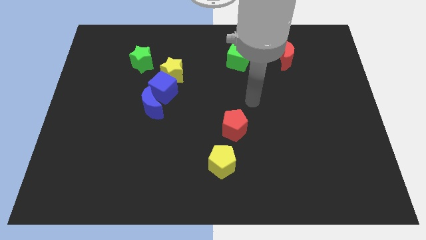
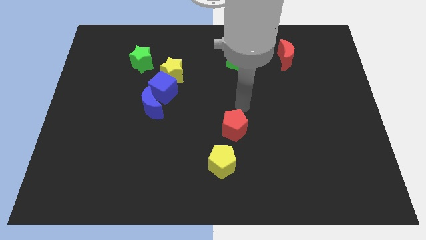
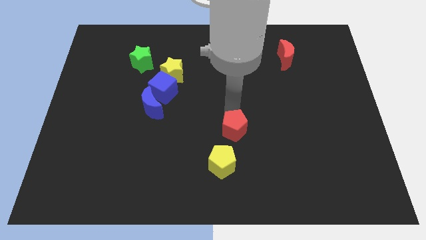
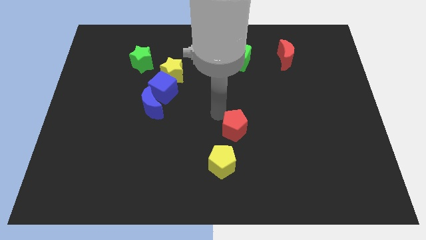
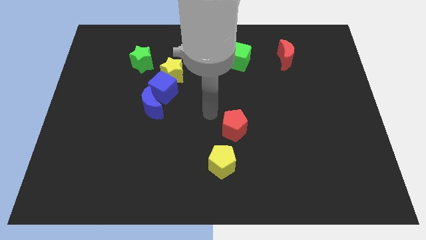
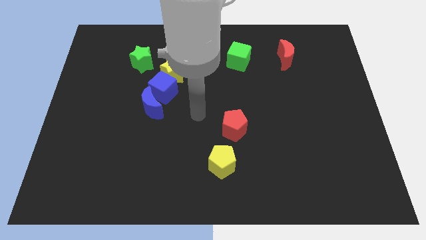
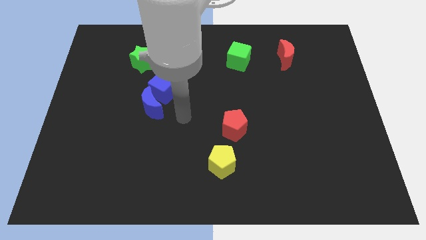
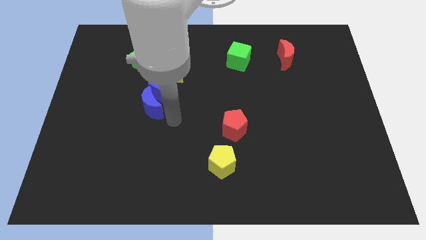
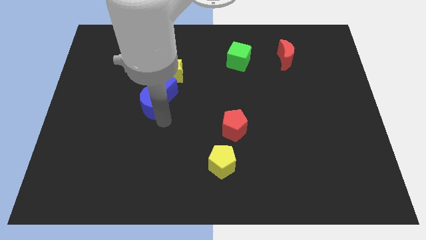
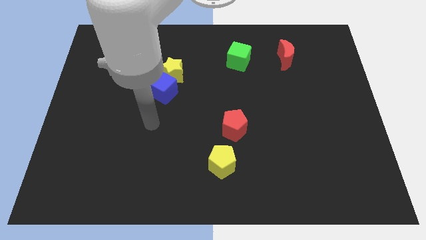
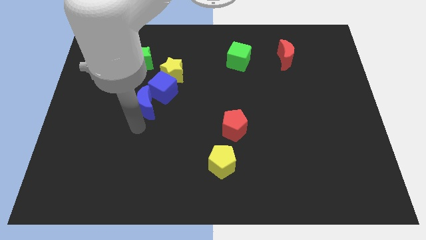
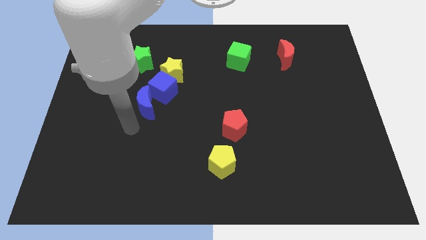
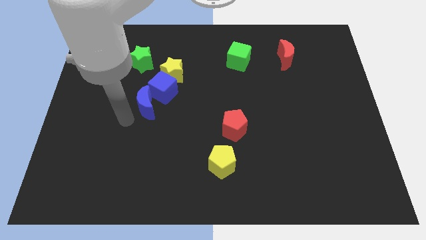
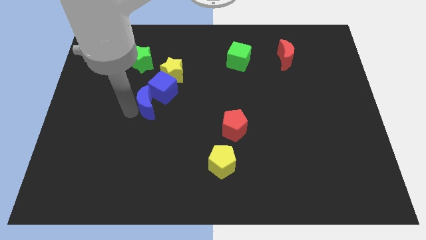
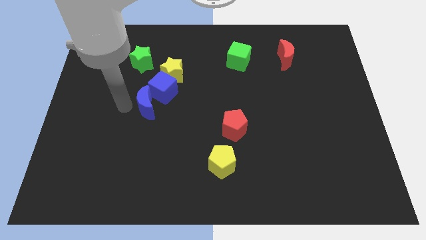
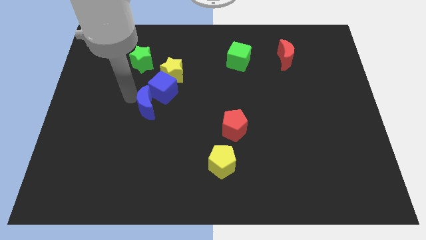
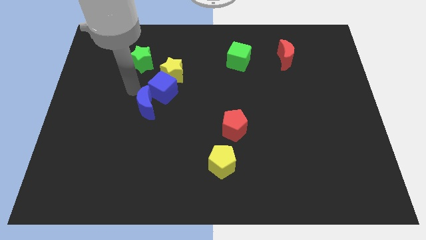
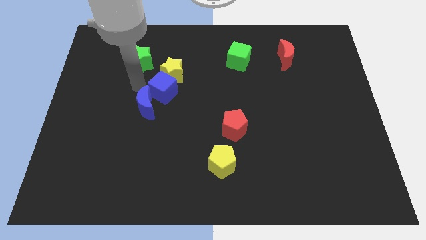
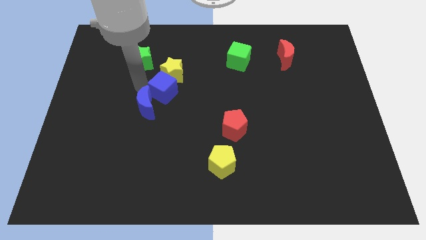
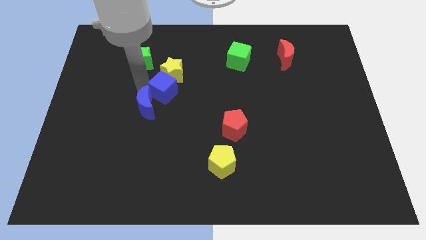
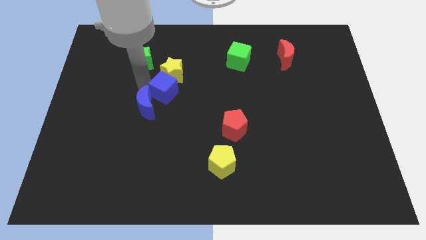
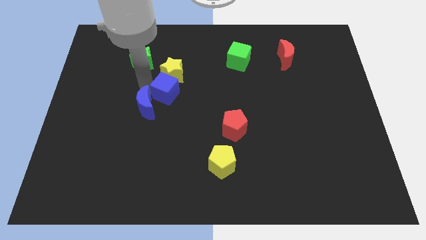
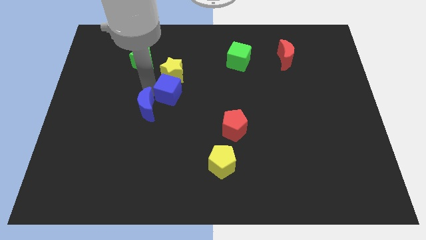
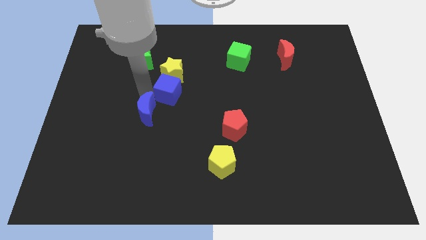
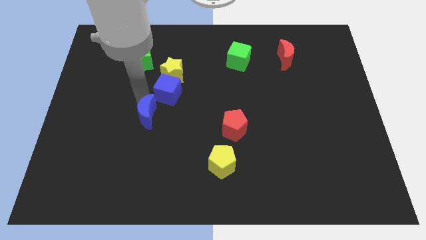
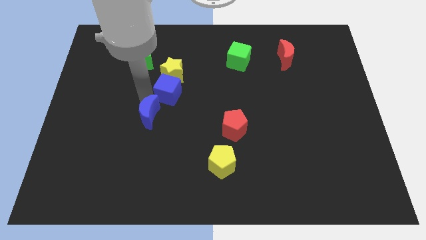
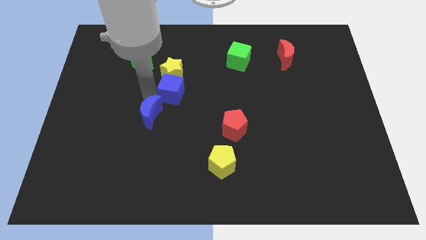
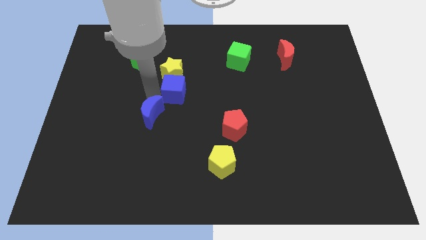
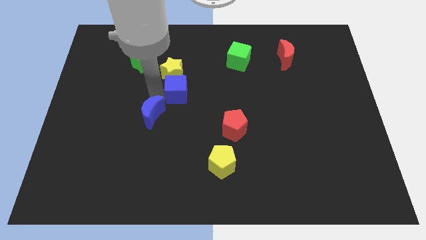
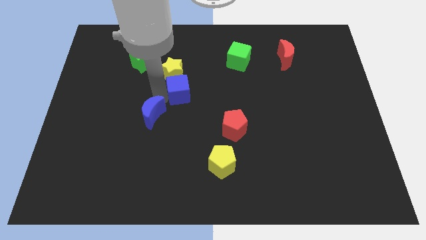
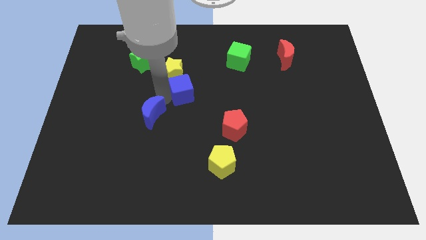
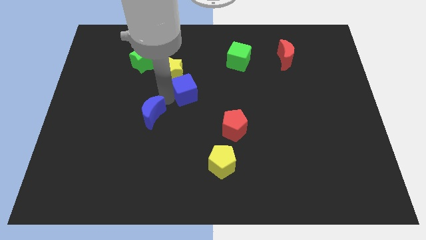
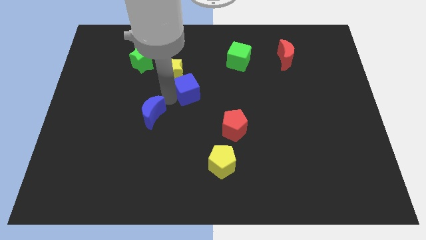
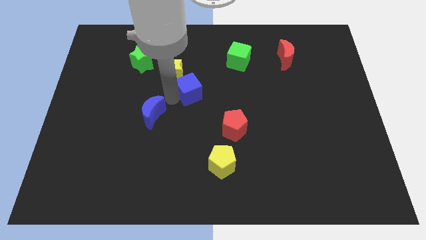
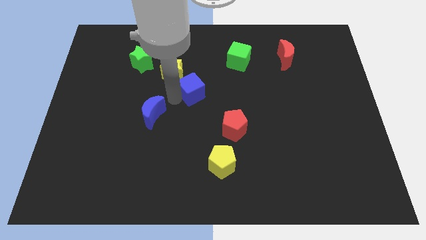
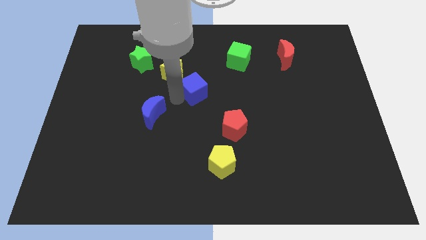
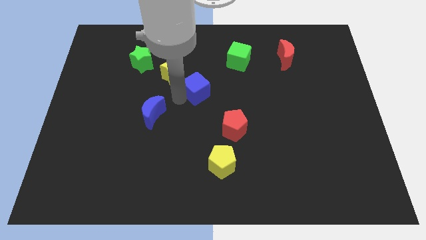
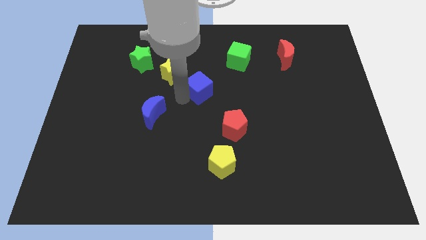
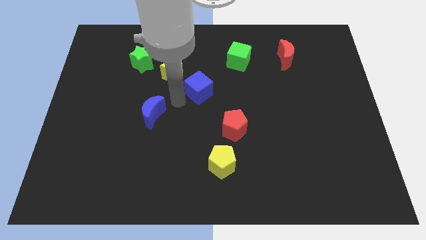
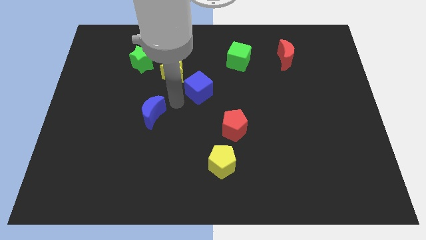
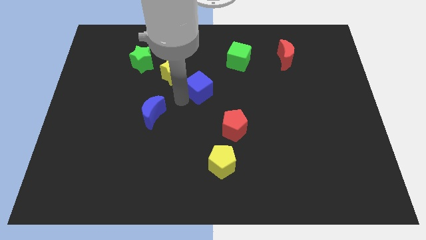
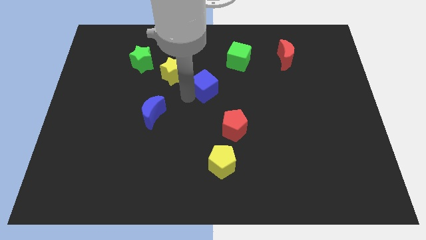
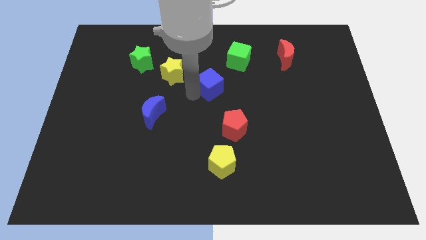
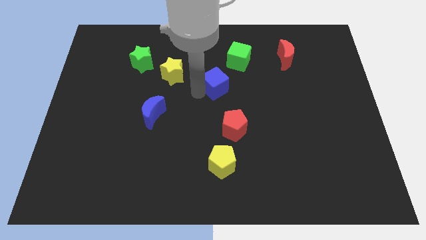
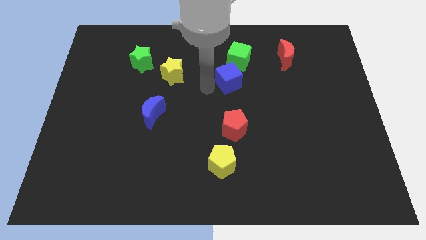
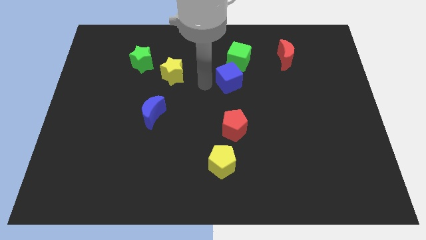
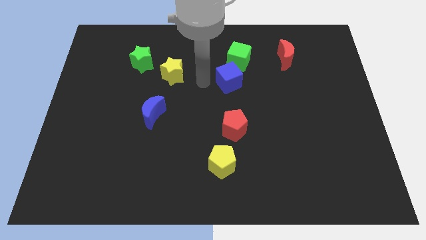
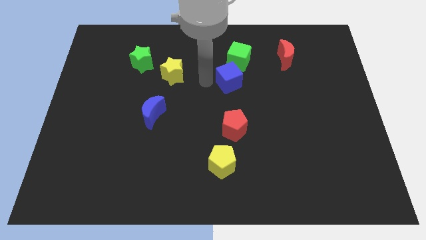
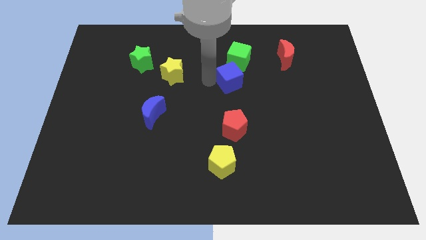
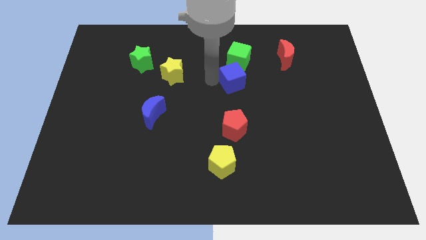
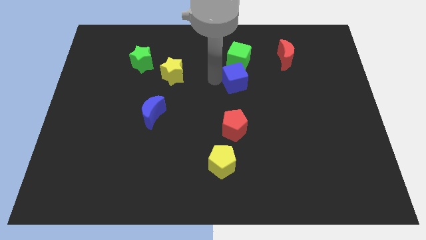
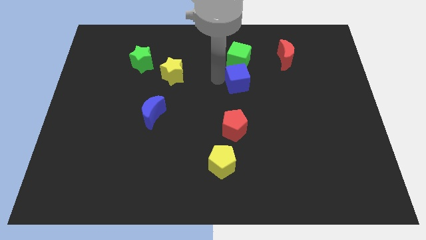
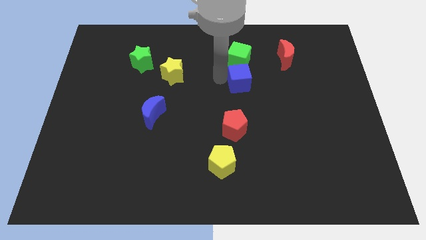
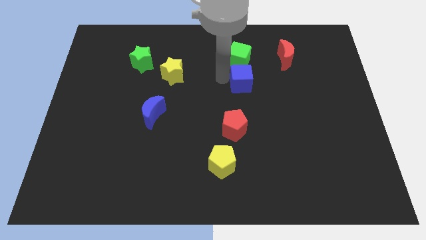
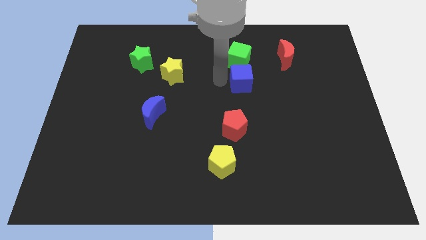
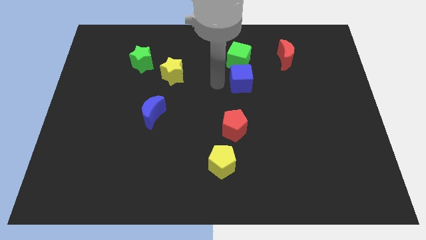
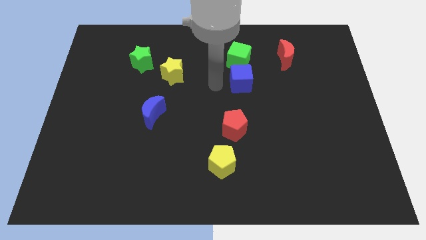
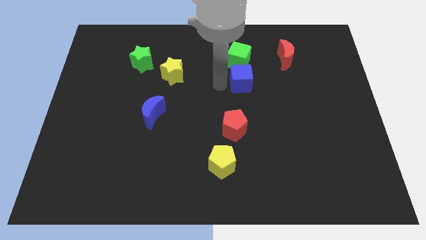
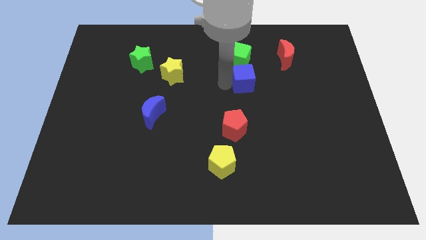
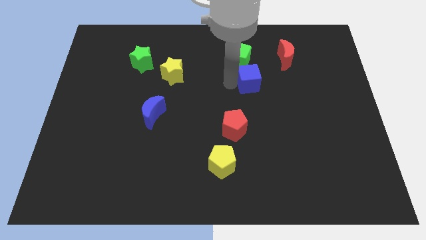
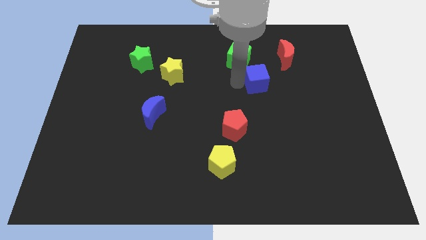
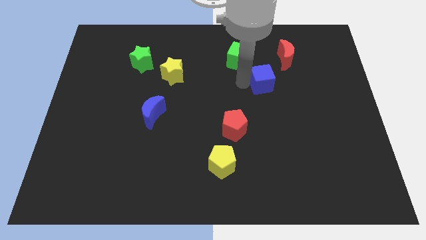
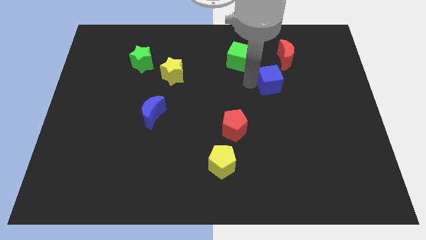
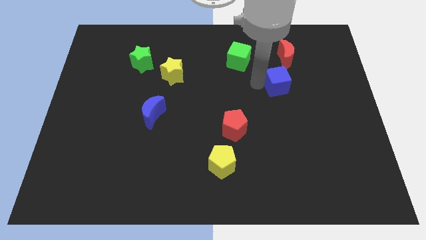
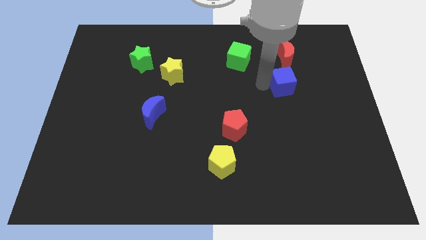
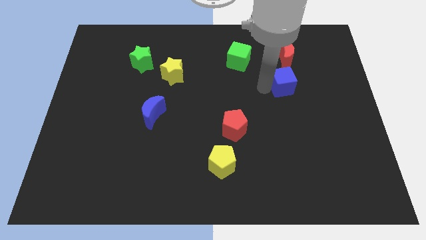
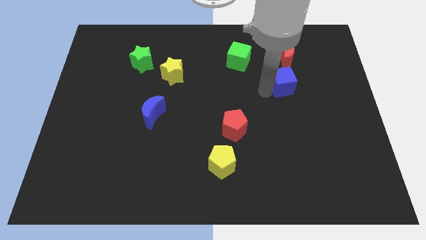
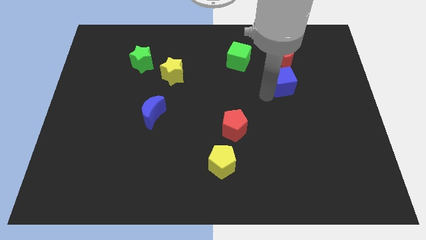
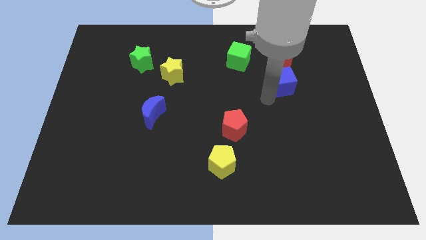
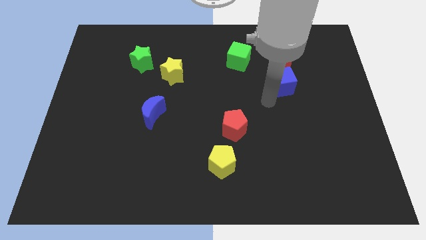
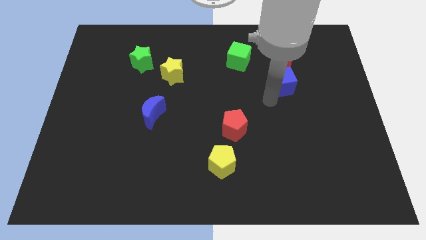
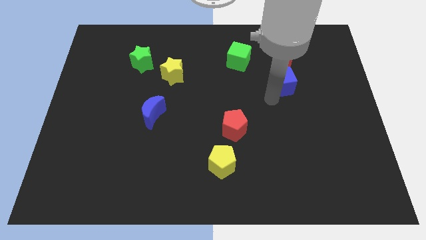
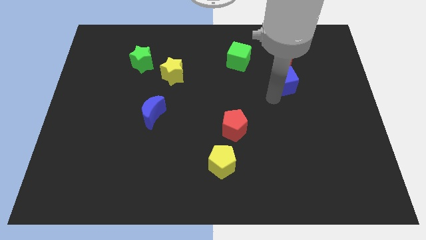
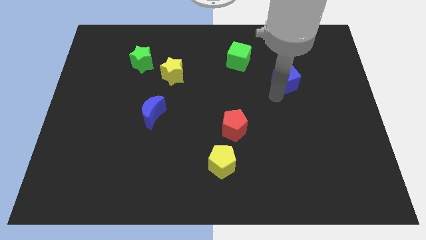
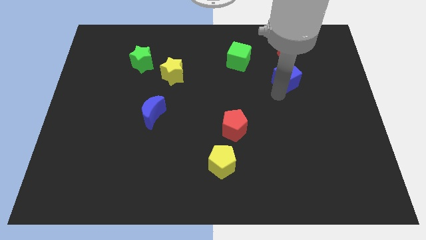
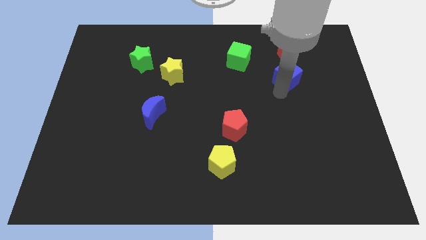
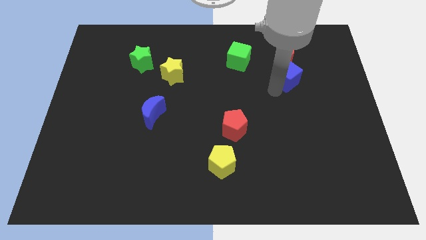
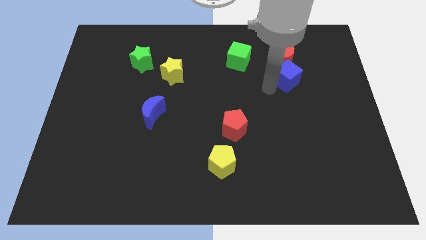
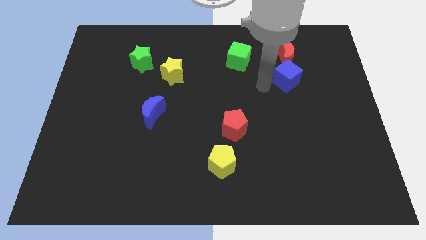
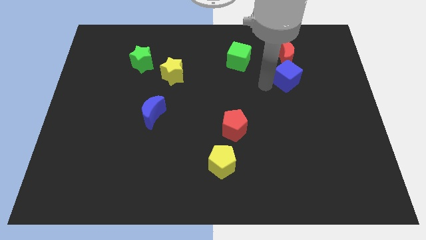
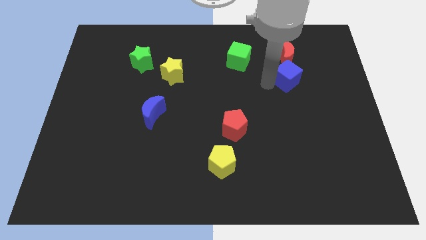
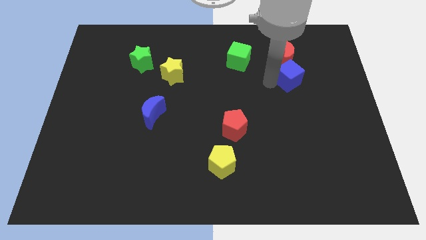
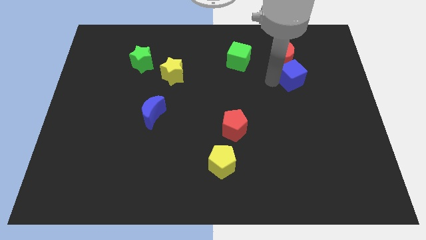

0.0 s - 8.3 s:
put the blue cube to the bottom right of the red moon
